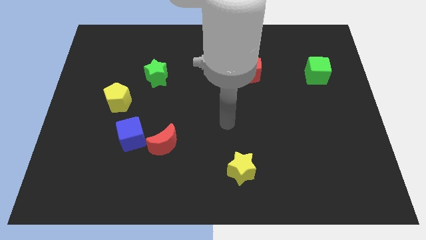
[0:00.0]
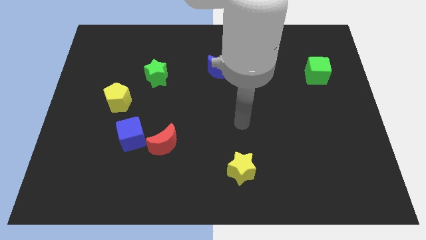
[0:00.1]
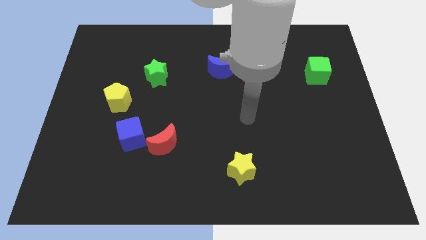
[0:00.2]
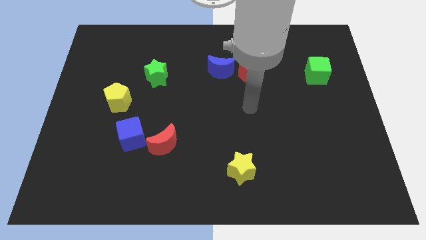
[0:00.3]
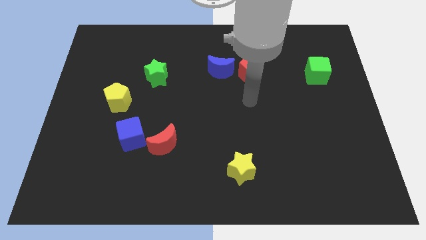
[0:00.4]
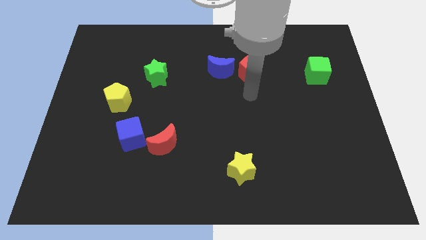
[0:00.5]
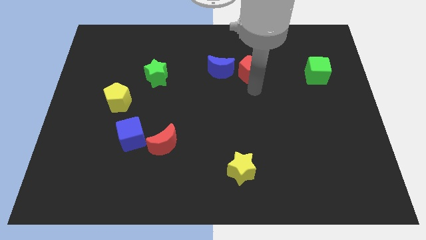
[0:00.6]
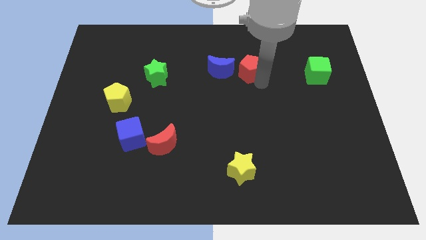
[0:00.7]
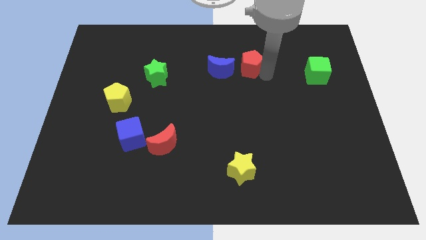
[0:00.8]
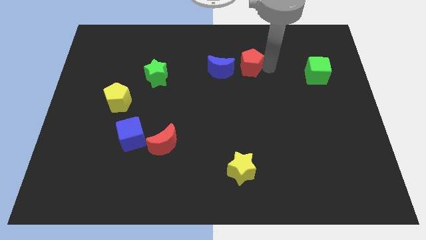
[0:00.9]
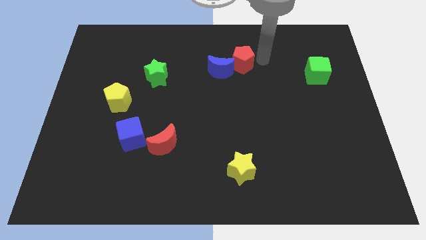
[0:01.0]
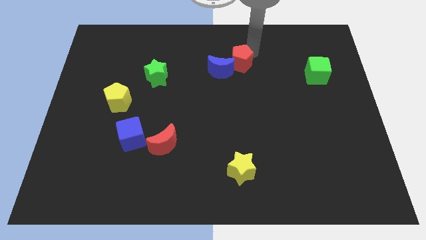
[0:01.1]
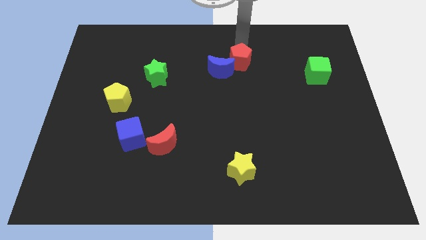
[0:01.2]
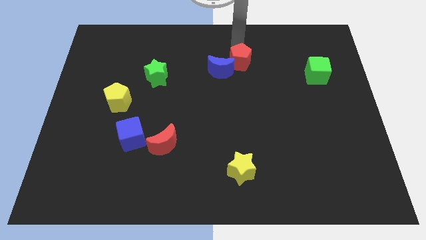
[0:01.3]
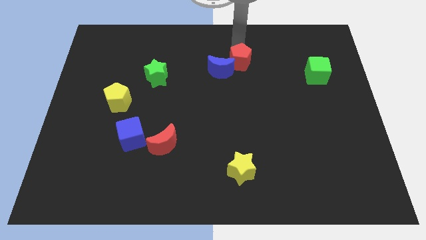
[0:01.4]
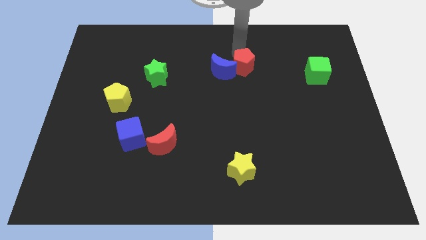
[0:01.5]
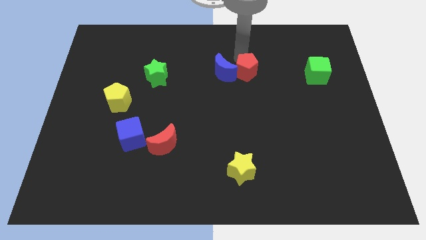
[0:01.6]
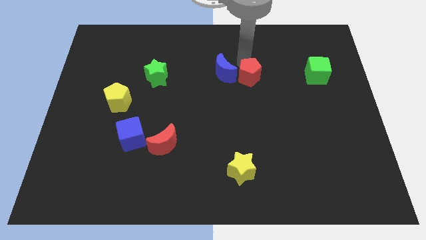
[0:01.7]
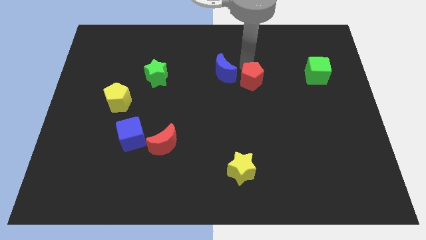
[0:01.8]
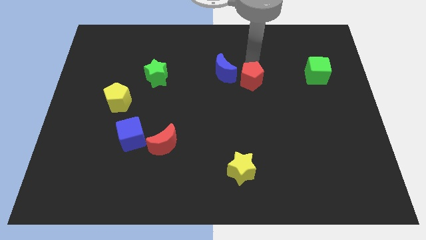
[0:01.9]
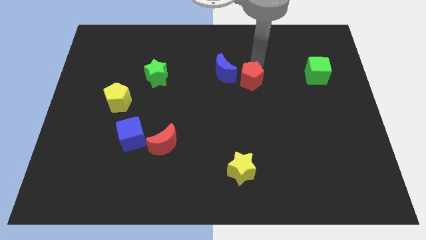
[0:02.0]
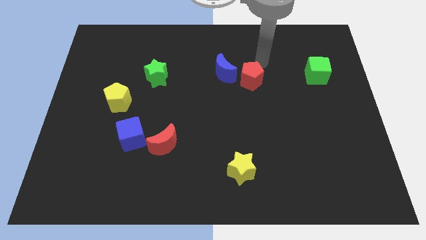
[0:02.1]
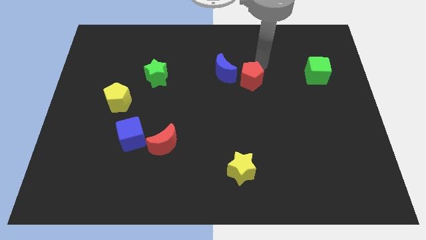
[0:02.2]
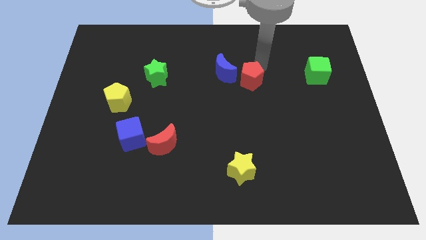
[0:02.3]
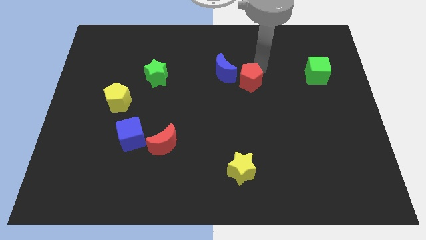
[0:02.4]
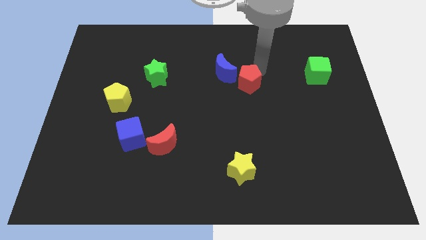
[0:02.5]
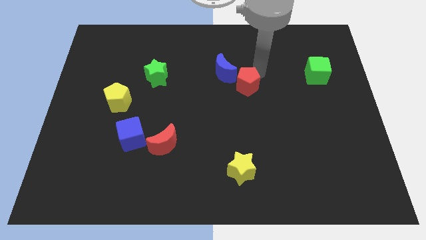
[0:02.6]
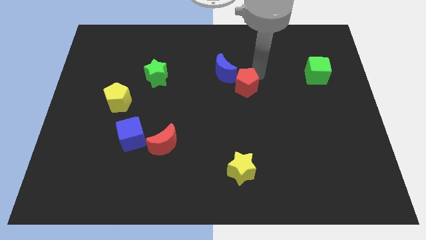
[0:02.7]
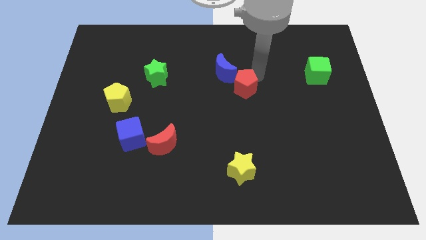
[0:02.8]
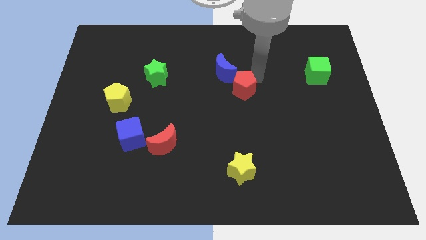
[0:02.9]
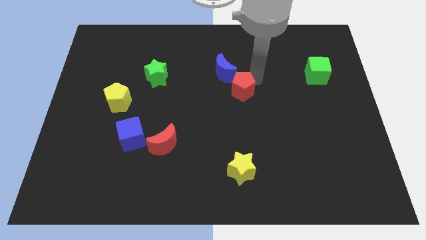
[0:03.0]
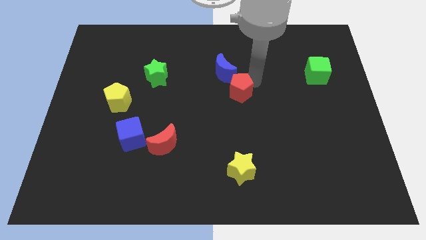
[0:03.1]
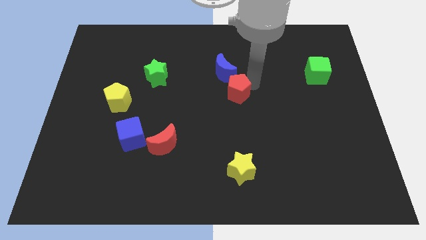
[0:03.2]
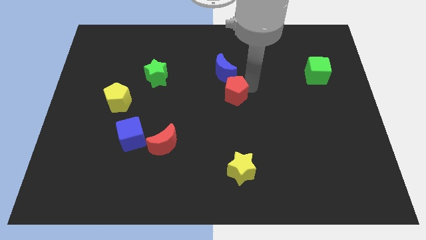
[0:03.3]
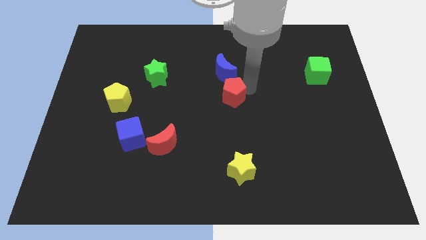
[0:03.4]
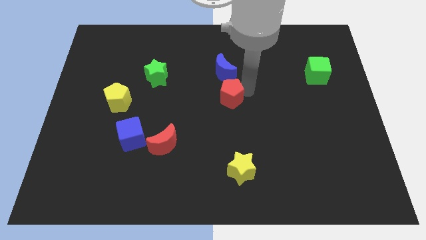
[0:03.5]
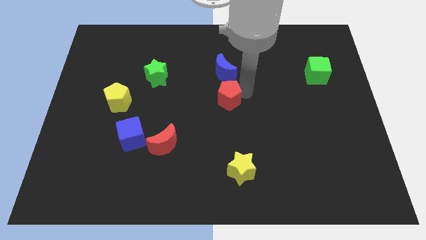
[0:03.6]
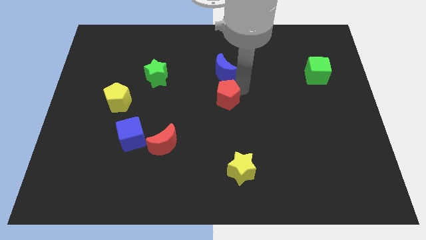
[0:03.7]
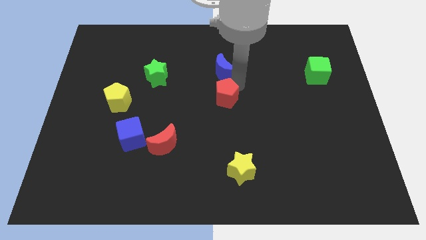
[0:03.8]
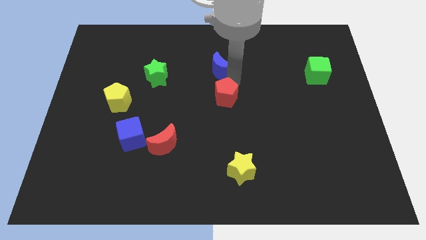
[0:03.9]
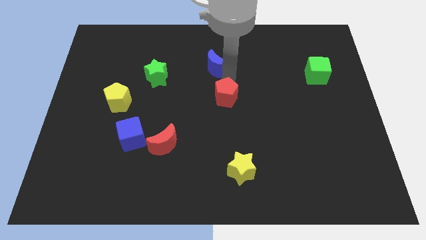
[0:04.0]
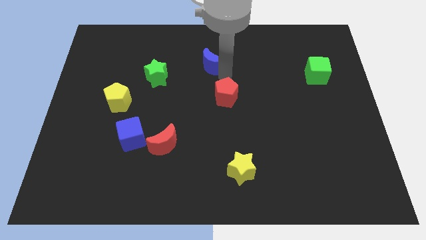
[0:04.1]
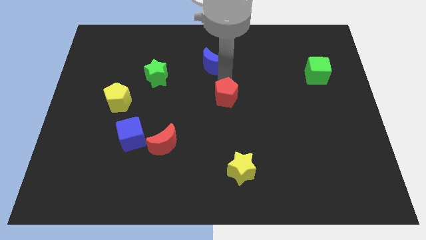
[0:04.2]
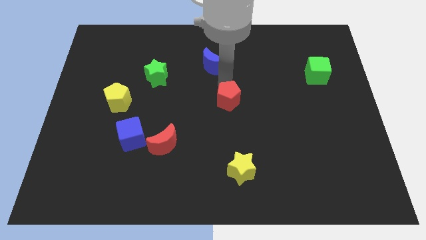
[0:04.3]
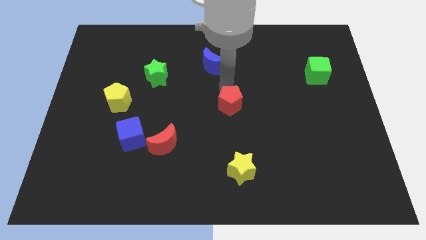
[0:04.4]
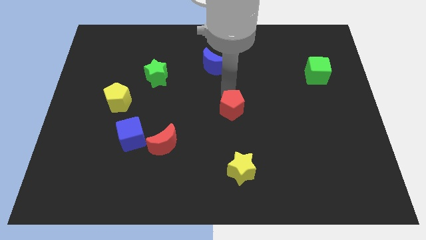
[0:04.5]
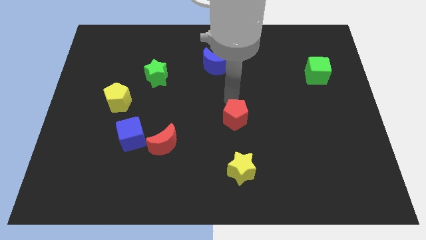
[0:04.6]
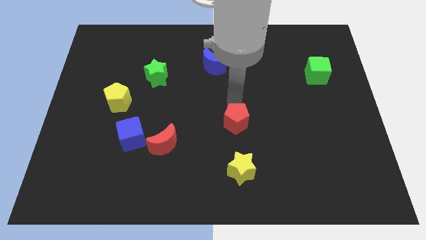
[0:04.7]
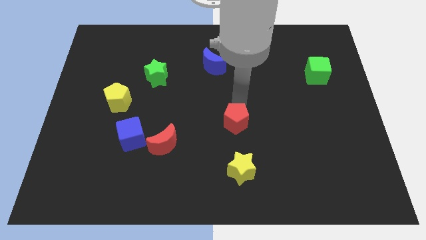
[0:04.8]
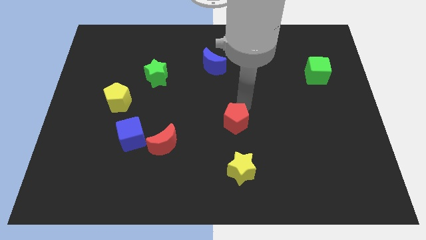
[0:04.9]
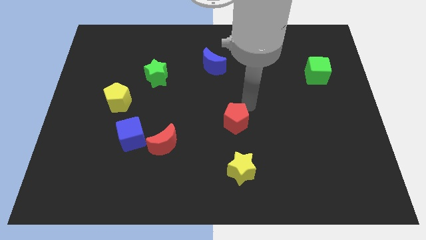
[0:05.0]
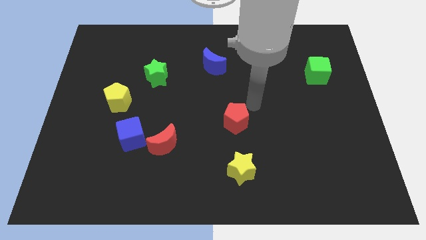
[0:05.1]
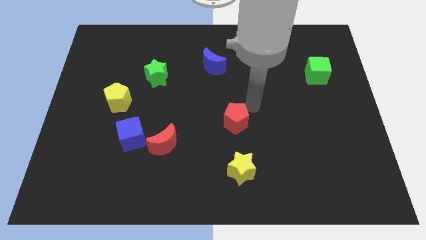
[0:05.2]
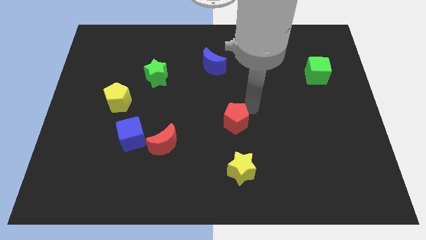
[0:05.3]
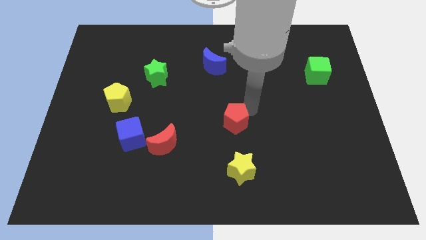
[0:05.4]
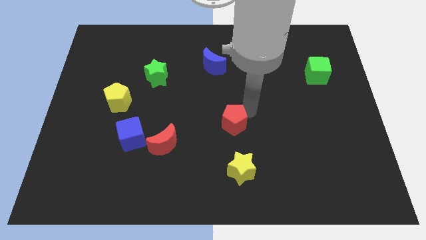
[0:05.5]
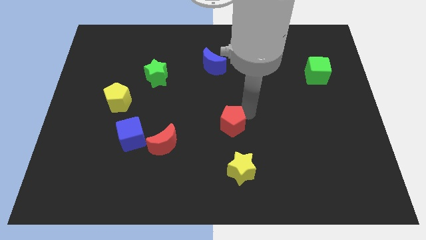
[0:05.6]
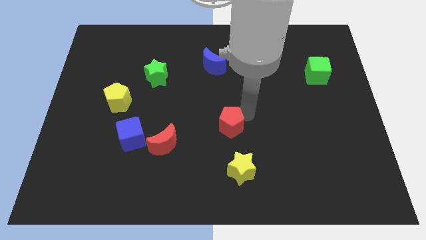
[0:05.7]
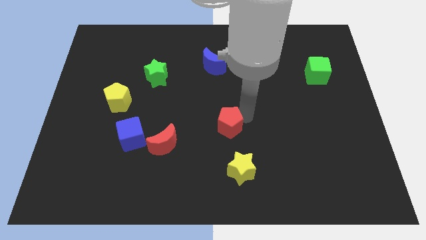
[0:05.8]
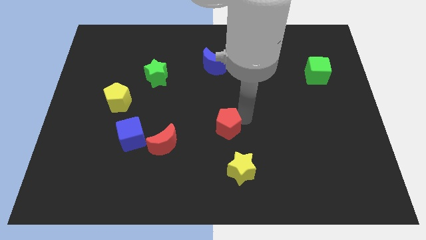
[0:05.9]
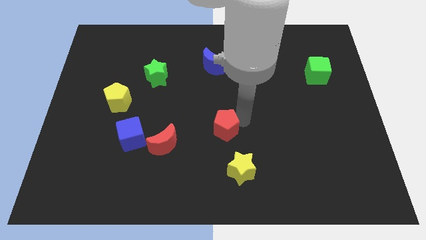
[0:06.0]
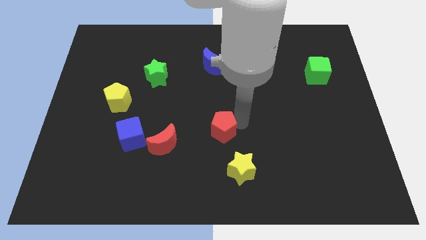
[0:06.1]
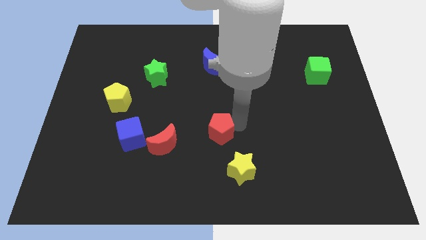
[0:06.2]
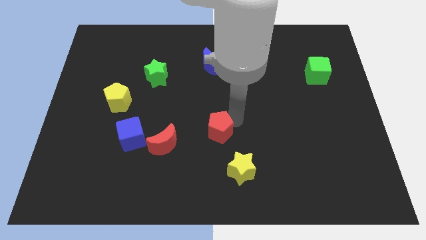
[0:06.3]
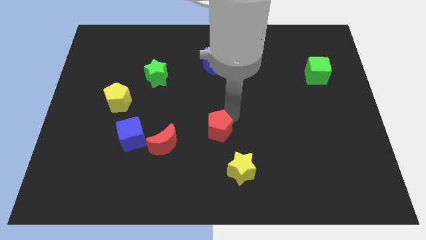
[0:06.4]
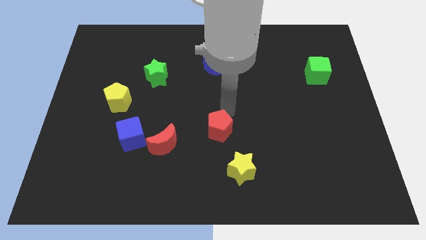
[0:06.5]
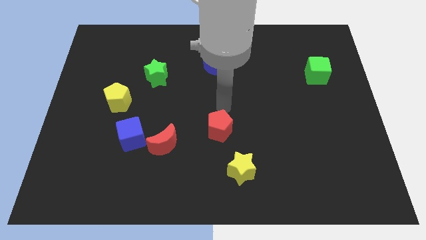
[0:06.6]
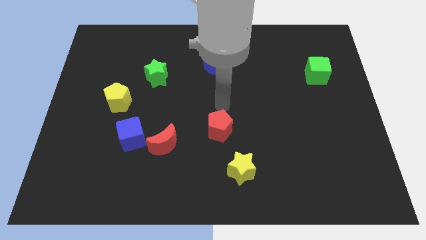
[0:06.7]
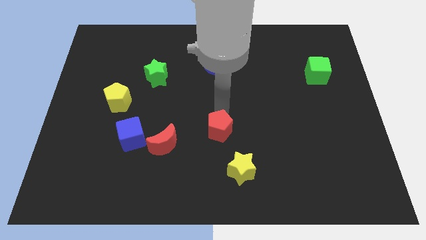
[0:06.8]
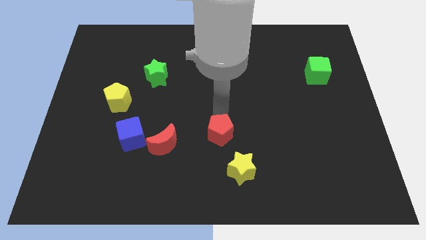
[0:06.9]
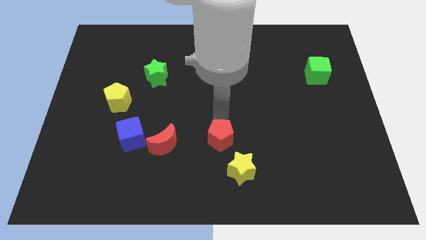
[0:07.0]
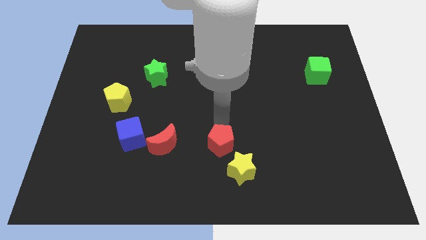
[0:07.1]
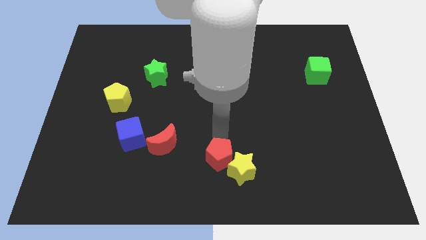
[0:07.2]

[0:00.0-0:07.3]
slide the red pentagon to the bottom side
